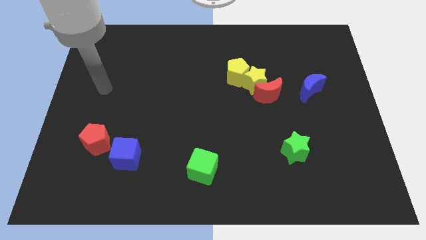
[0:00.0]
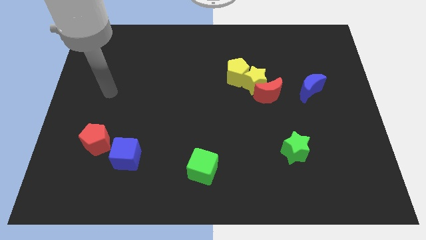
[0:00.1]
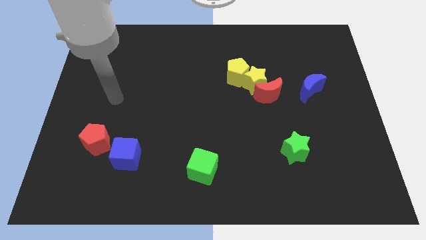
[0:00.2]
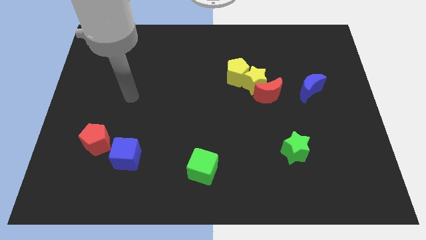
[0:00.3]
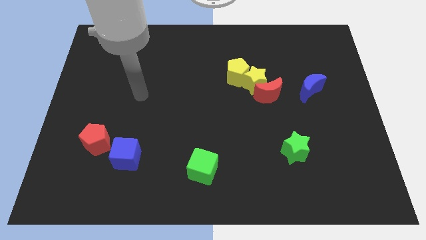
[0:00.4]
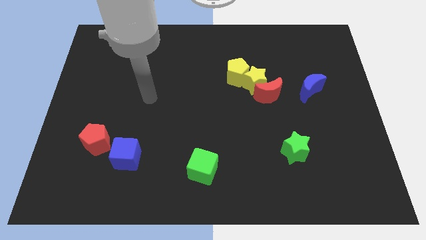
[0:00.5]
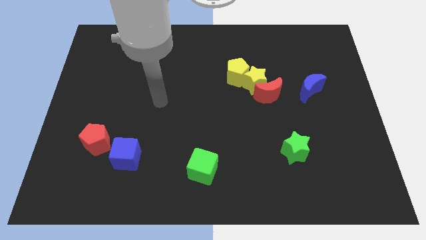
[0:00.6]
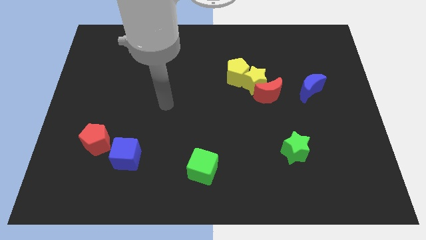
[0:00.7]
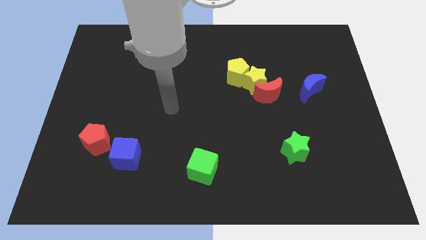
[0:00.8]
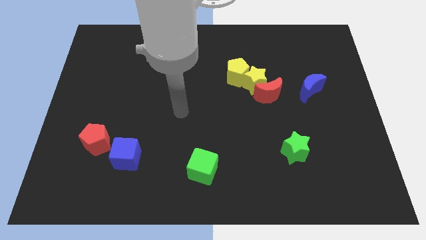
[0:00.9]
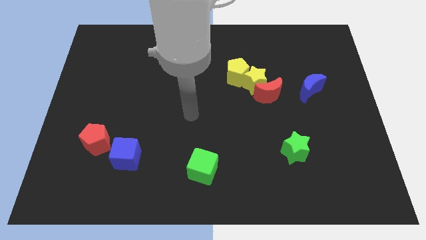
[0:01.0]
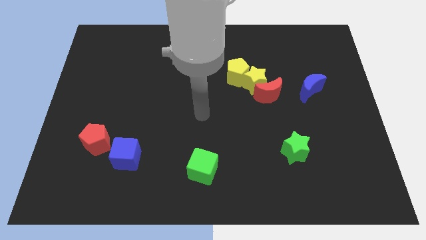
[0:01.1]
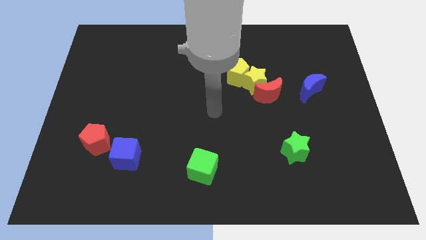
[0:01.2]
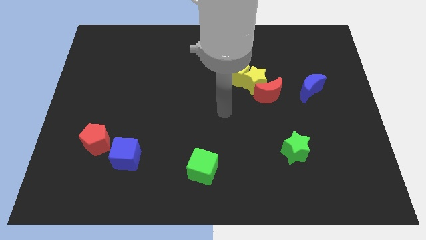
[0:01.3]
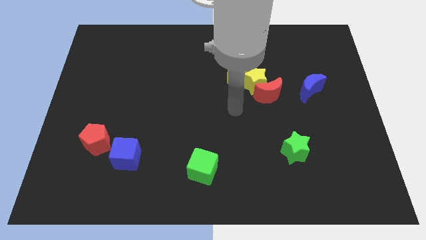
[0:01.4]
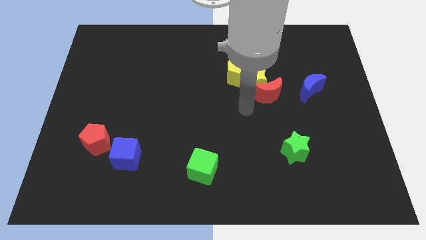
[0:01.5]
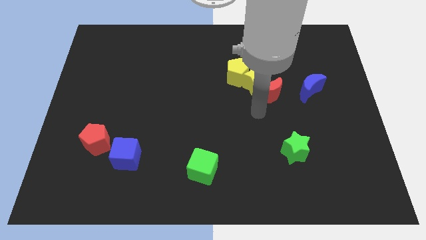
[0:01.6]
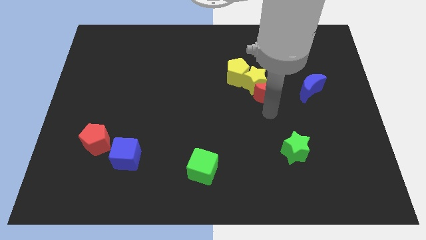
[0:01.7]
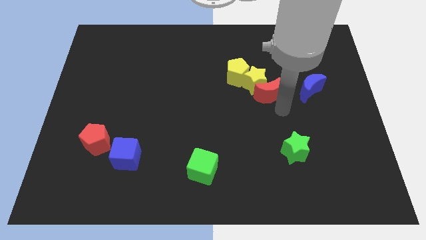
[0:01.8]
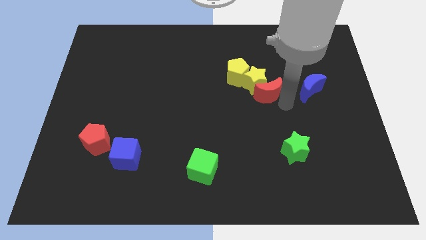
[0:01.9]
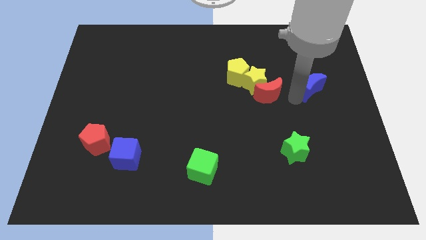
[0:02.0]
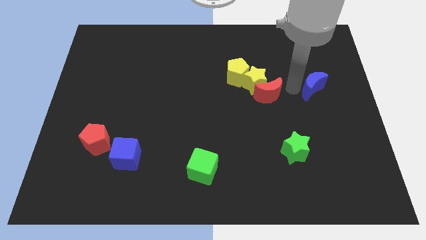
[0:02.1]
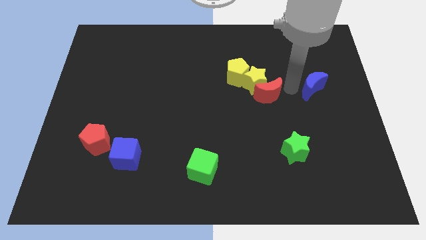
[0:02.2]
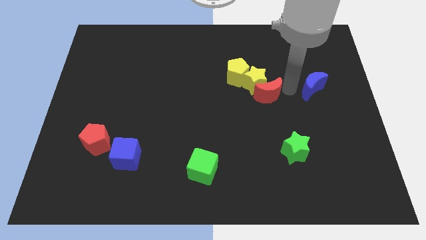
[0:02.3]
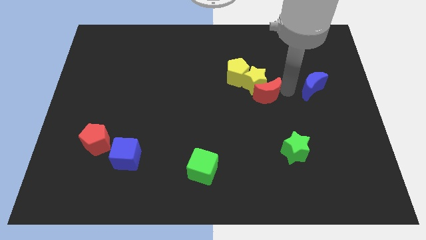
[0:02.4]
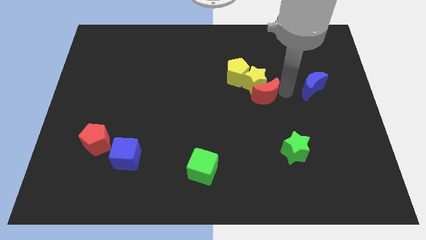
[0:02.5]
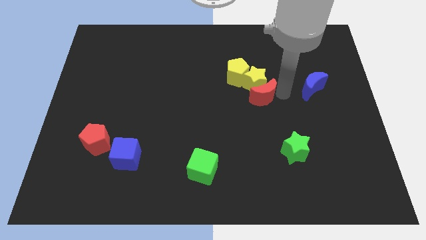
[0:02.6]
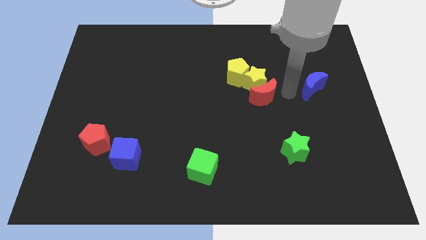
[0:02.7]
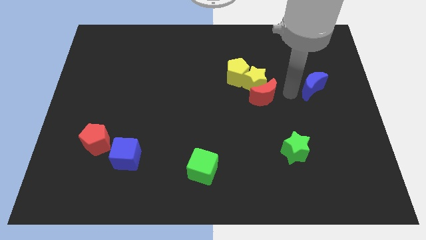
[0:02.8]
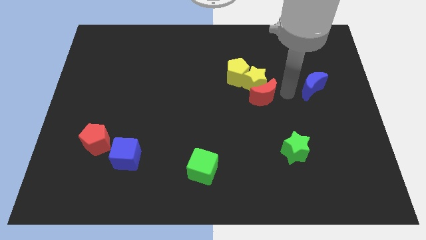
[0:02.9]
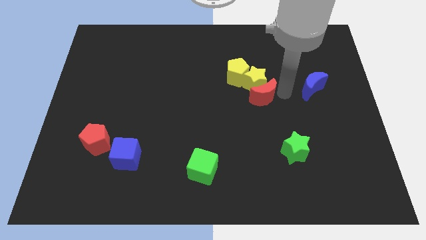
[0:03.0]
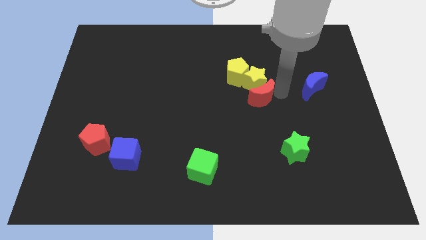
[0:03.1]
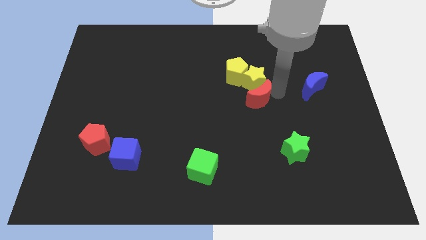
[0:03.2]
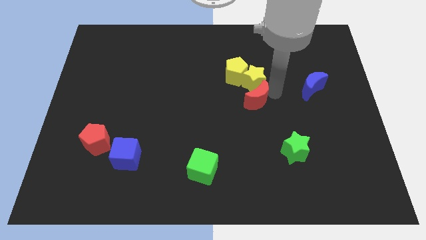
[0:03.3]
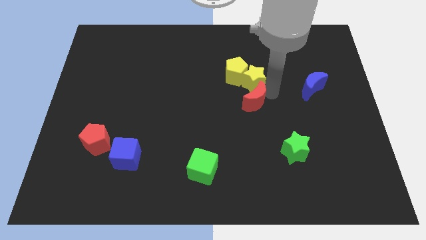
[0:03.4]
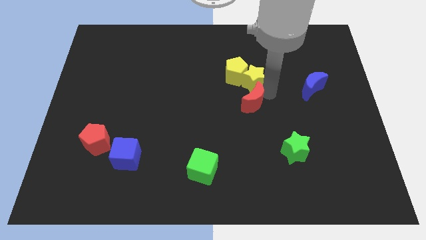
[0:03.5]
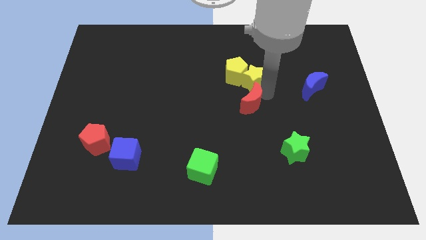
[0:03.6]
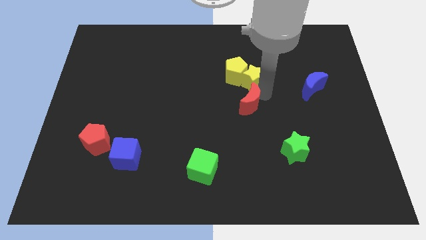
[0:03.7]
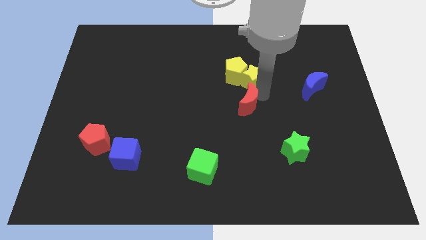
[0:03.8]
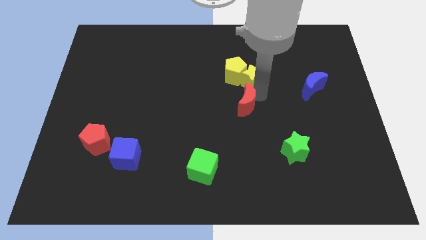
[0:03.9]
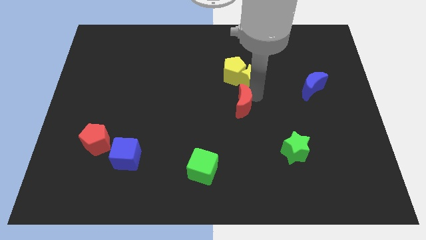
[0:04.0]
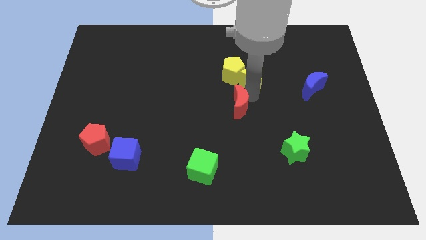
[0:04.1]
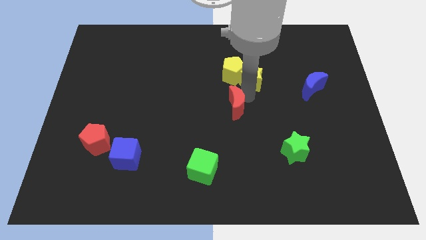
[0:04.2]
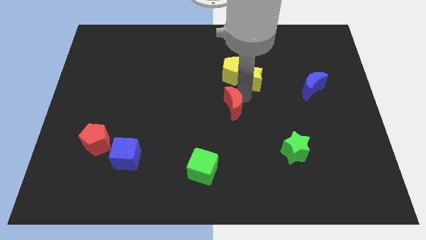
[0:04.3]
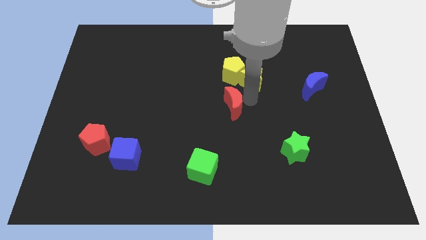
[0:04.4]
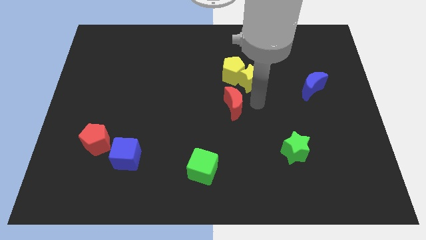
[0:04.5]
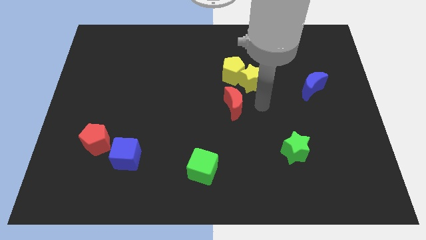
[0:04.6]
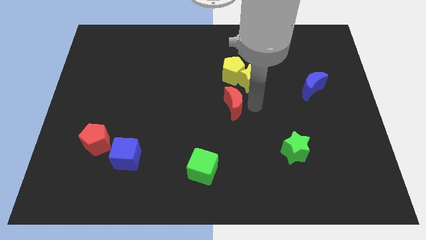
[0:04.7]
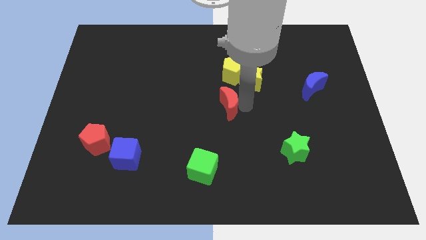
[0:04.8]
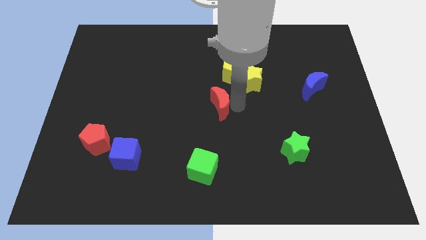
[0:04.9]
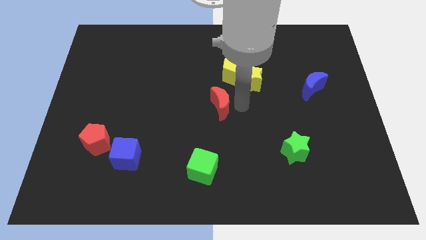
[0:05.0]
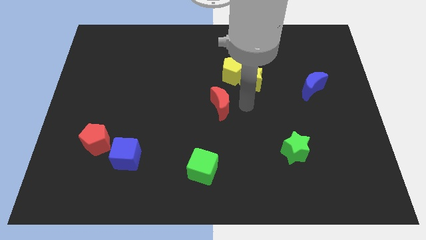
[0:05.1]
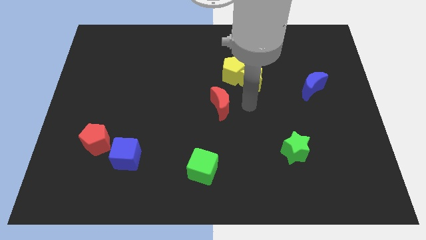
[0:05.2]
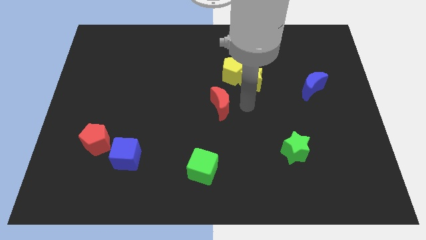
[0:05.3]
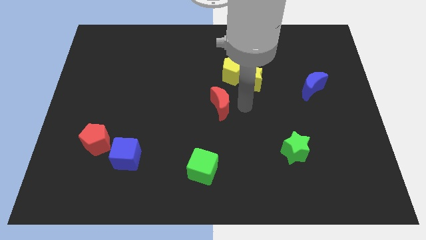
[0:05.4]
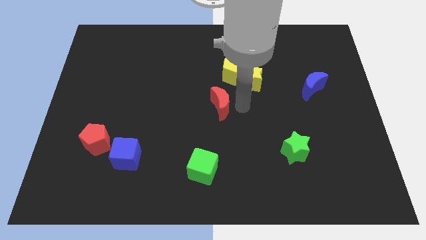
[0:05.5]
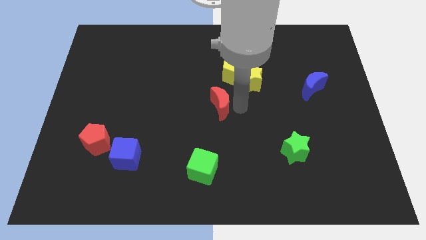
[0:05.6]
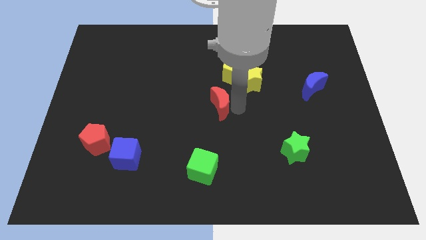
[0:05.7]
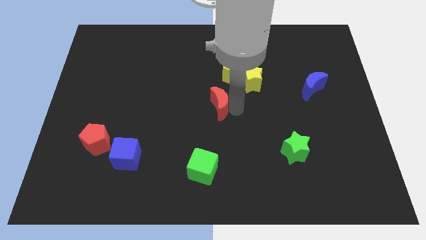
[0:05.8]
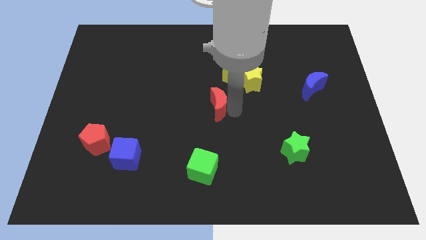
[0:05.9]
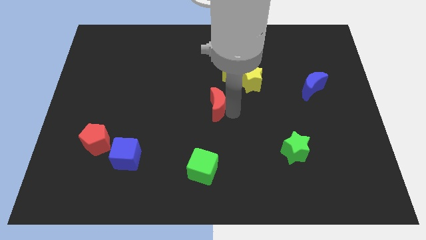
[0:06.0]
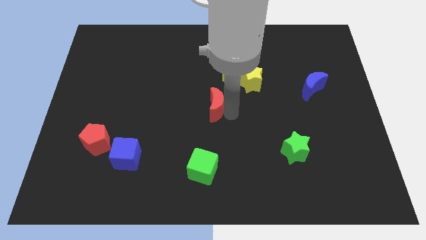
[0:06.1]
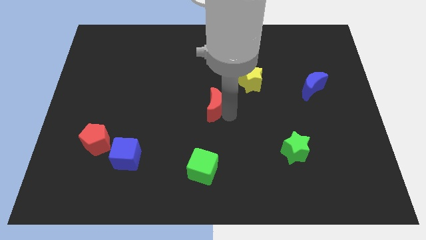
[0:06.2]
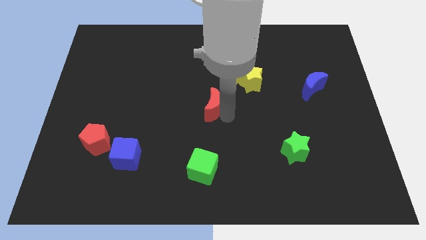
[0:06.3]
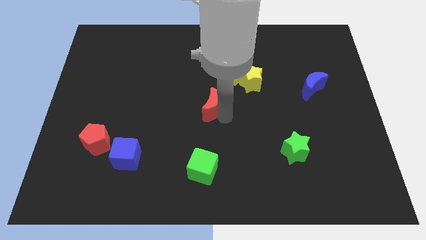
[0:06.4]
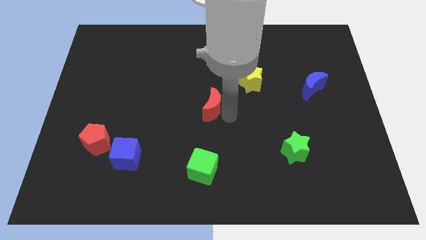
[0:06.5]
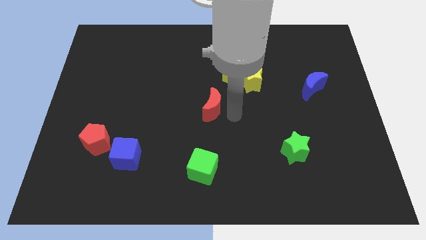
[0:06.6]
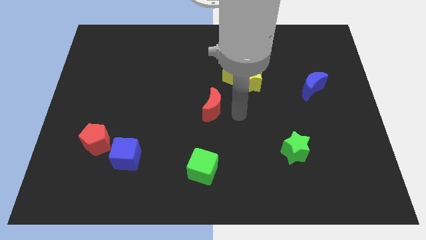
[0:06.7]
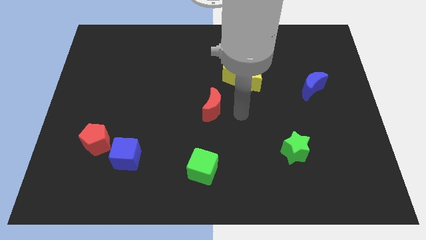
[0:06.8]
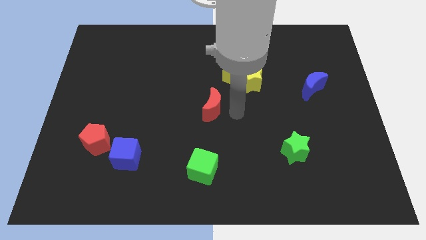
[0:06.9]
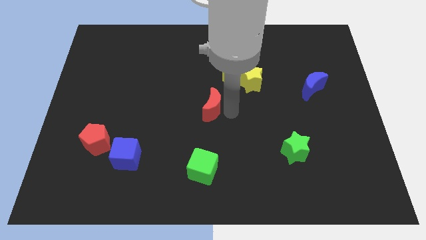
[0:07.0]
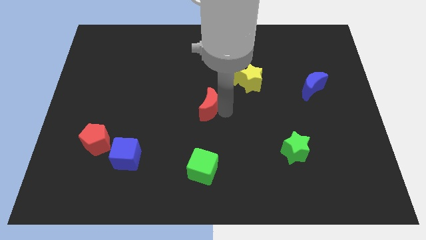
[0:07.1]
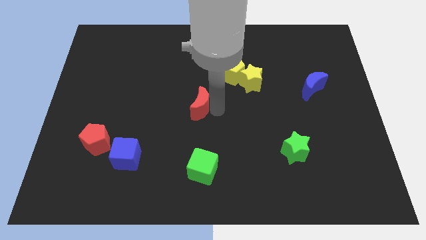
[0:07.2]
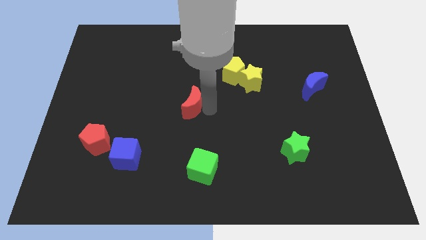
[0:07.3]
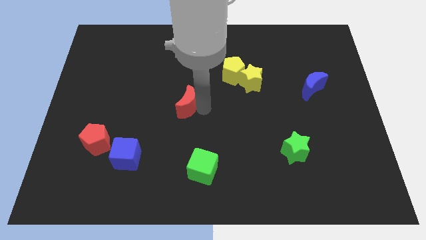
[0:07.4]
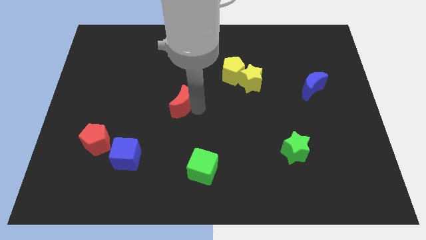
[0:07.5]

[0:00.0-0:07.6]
move the red moon to the left
